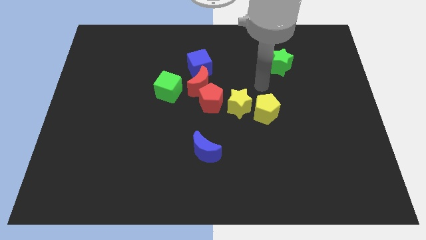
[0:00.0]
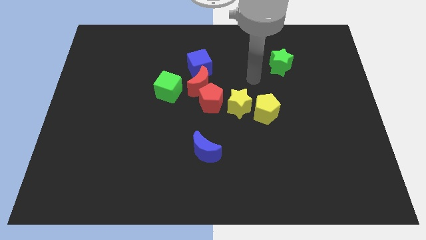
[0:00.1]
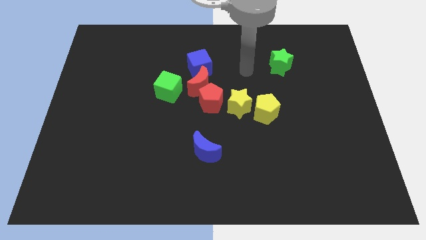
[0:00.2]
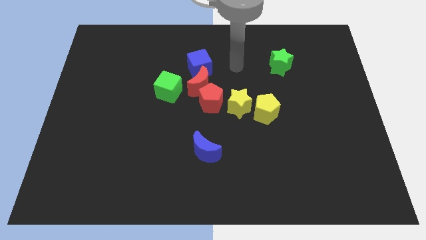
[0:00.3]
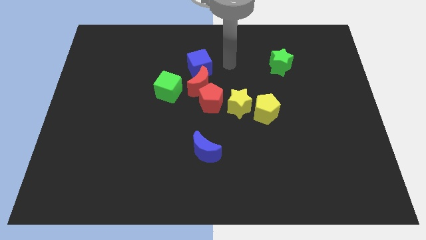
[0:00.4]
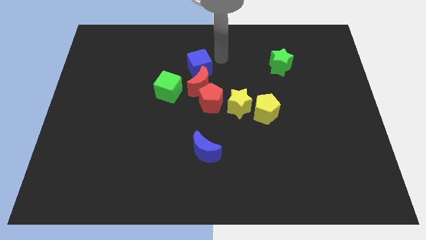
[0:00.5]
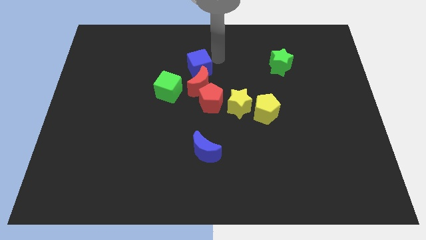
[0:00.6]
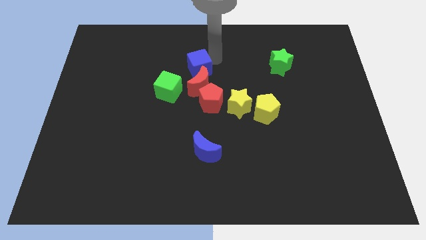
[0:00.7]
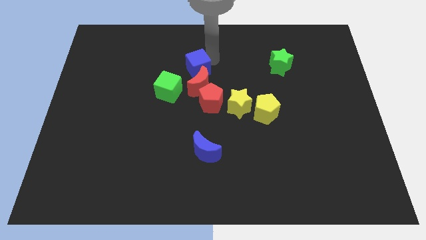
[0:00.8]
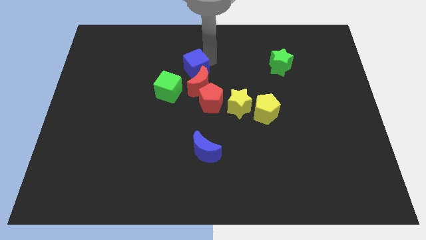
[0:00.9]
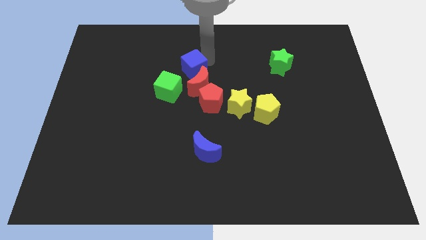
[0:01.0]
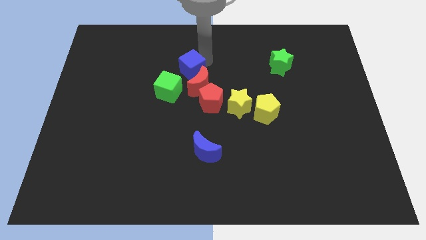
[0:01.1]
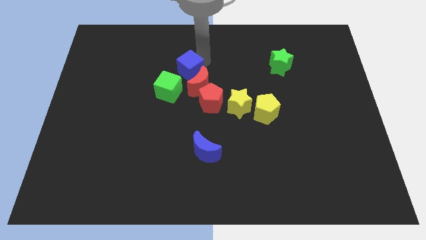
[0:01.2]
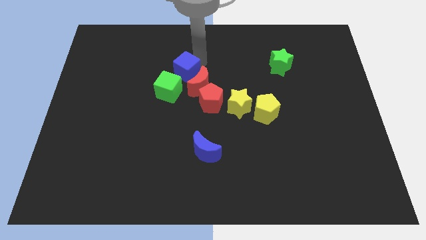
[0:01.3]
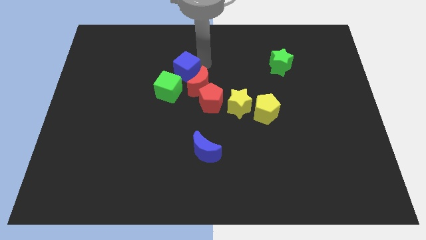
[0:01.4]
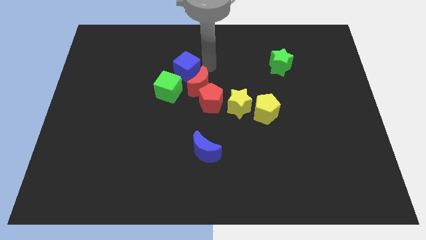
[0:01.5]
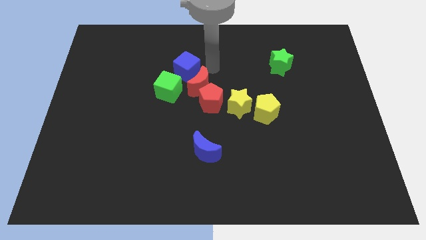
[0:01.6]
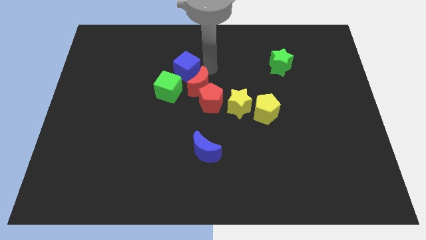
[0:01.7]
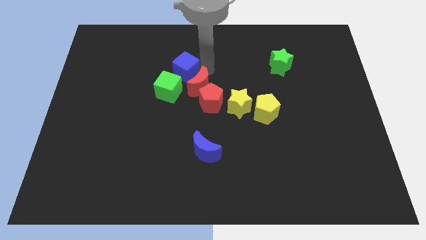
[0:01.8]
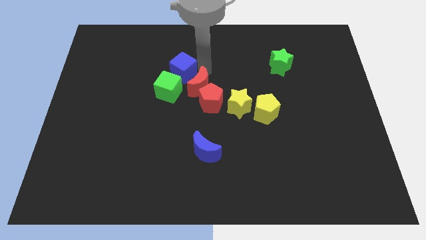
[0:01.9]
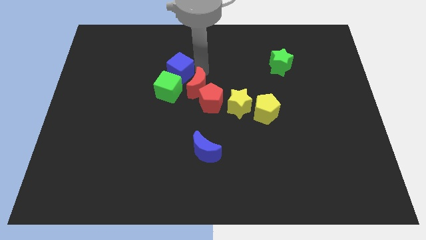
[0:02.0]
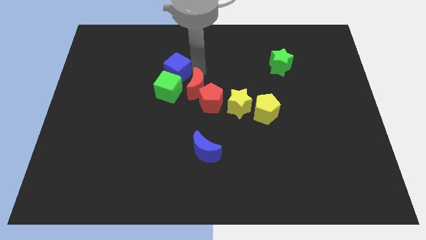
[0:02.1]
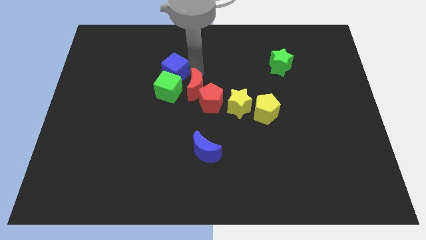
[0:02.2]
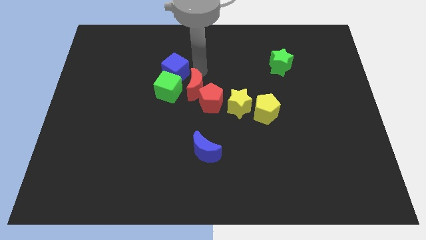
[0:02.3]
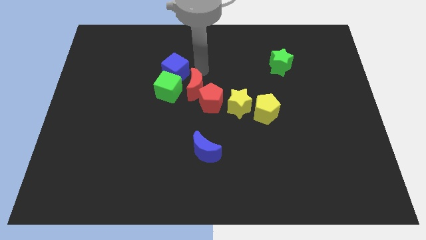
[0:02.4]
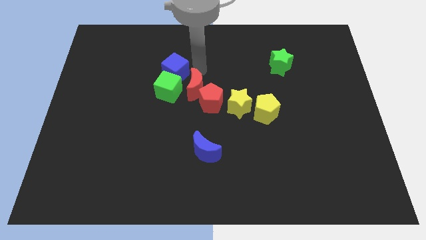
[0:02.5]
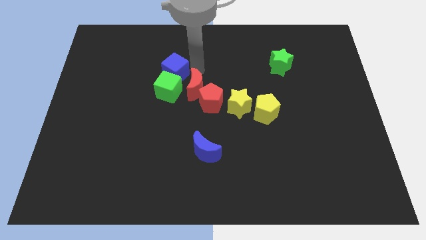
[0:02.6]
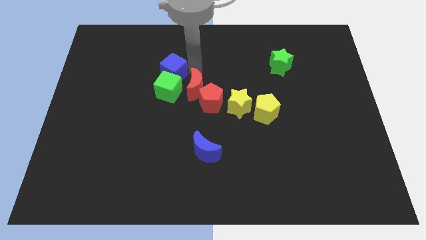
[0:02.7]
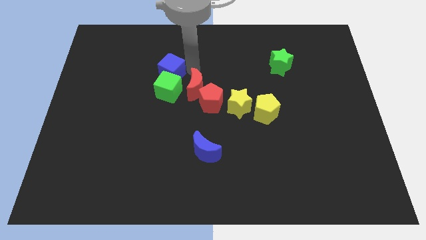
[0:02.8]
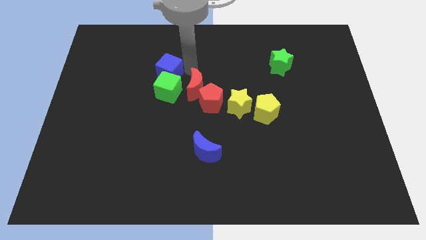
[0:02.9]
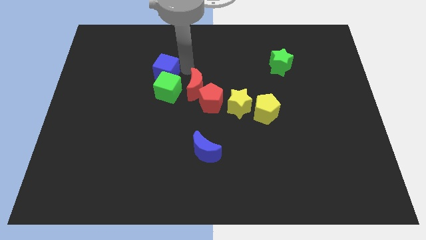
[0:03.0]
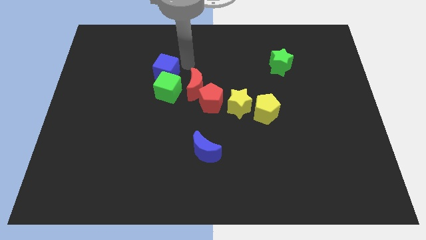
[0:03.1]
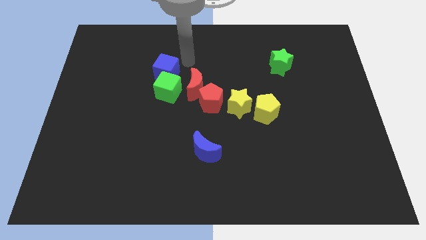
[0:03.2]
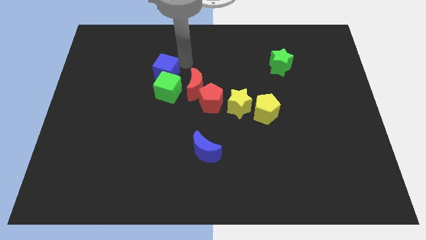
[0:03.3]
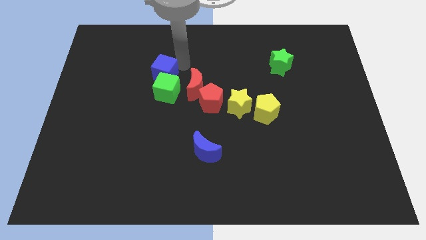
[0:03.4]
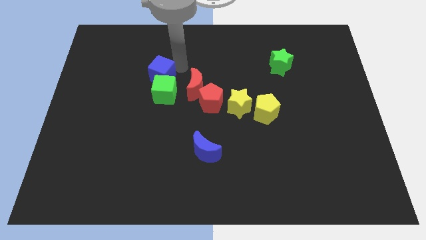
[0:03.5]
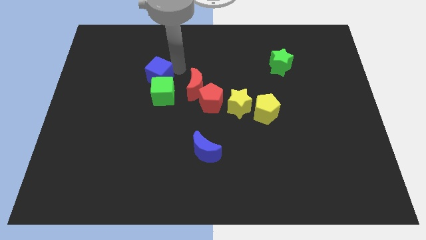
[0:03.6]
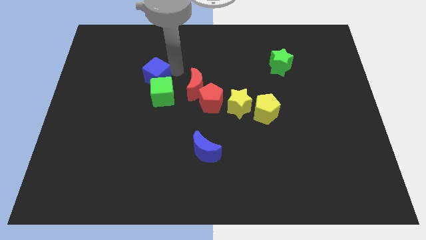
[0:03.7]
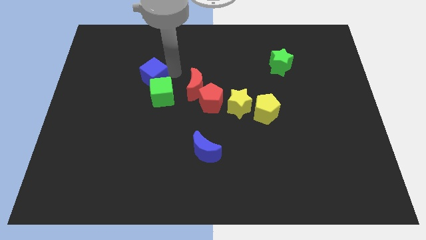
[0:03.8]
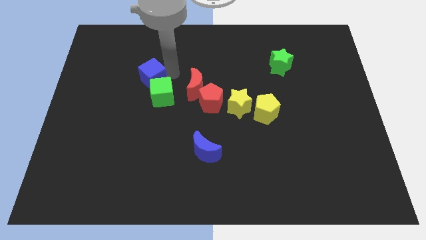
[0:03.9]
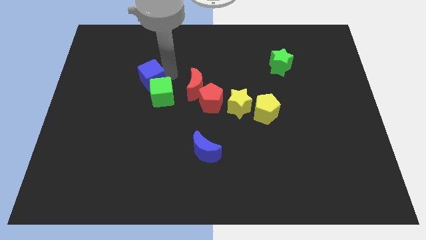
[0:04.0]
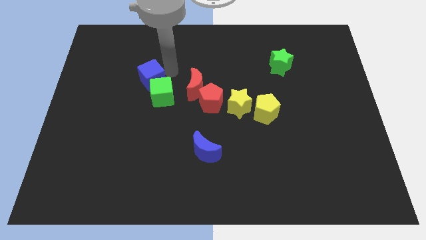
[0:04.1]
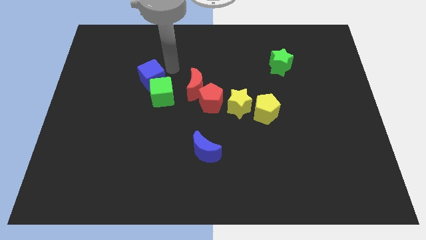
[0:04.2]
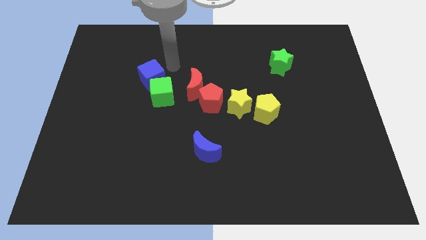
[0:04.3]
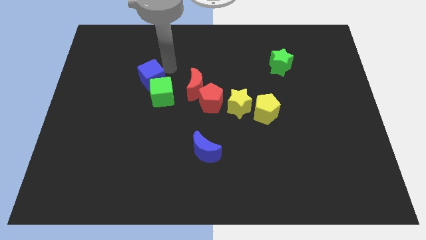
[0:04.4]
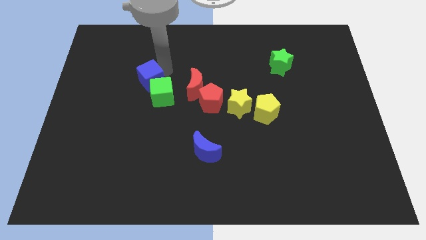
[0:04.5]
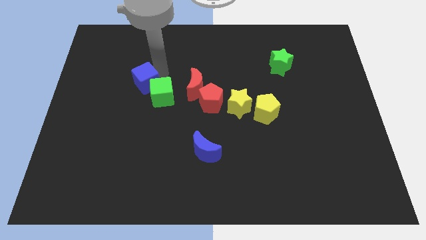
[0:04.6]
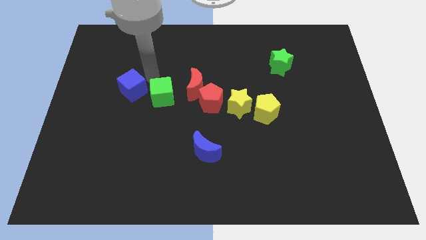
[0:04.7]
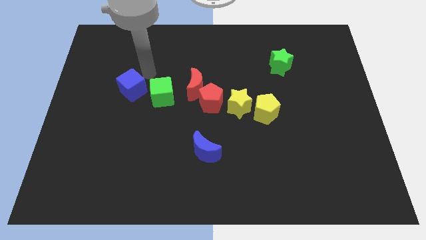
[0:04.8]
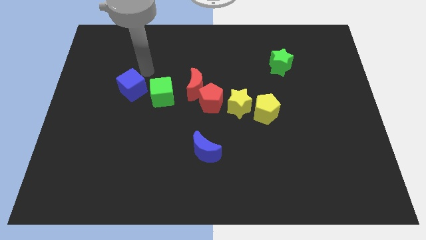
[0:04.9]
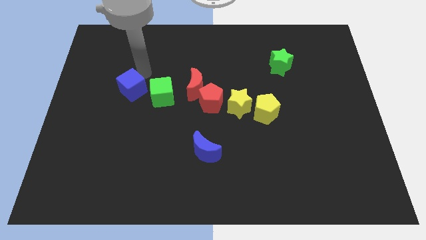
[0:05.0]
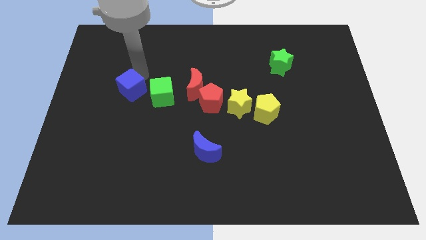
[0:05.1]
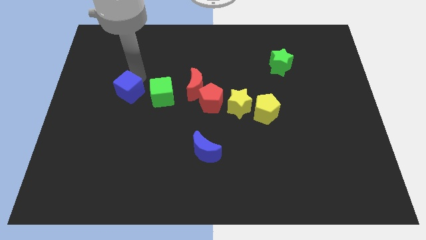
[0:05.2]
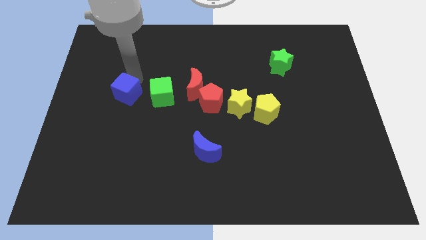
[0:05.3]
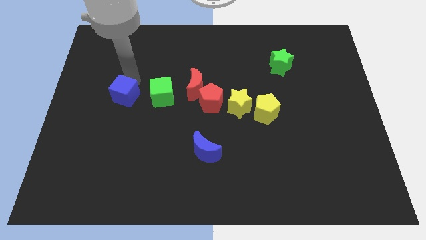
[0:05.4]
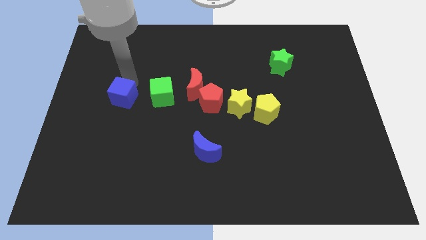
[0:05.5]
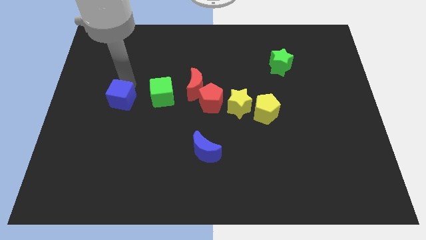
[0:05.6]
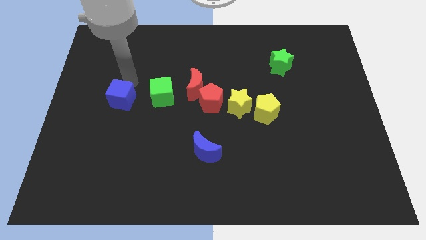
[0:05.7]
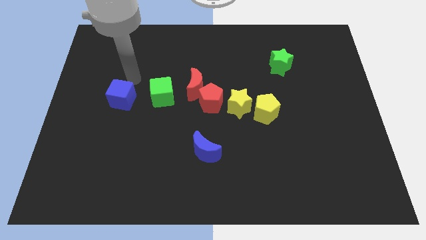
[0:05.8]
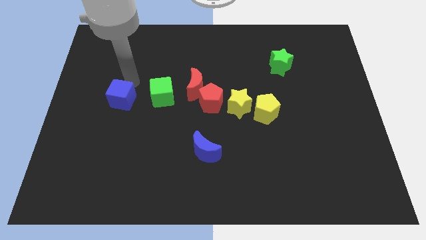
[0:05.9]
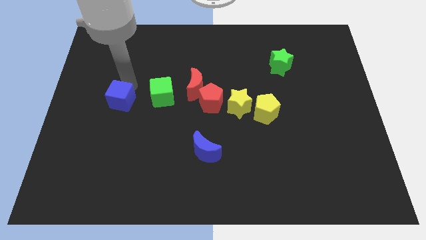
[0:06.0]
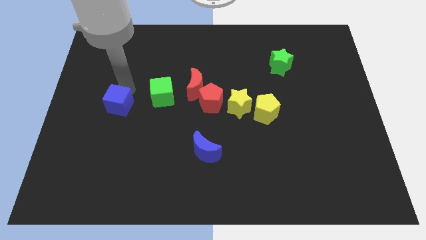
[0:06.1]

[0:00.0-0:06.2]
slide the blue cube downwards and left diagonally

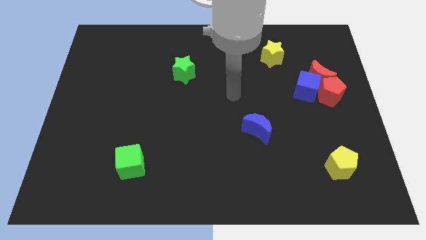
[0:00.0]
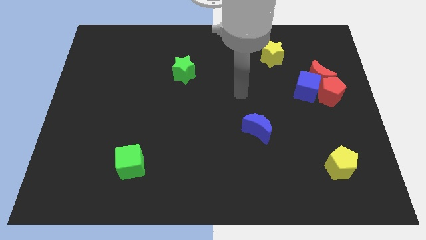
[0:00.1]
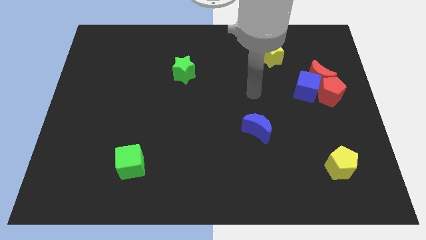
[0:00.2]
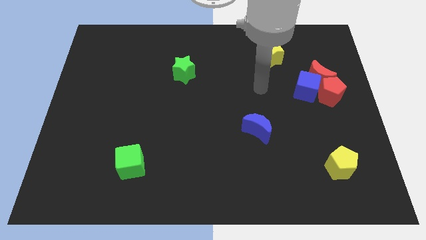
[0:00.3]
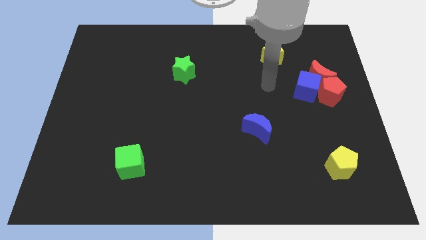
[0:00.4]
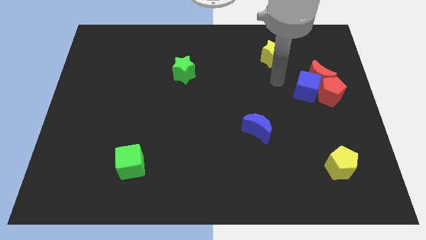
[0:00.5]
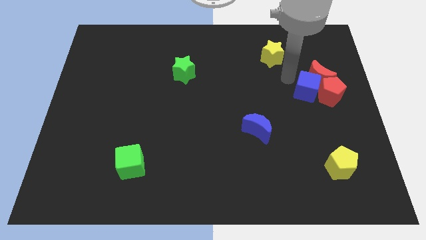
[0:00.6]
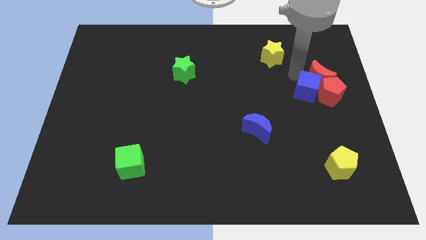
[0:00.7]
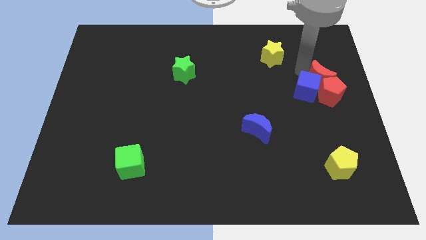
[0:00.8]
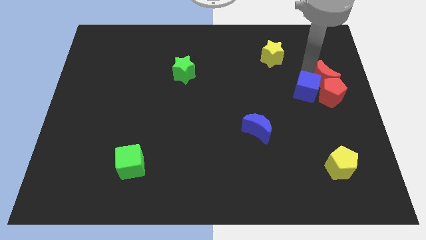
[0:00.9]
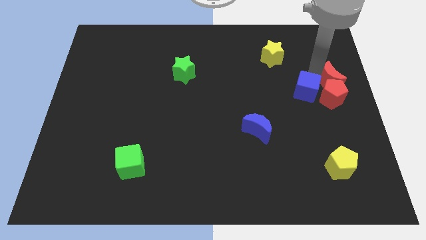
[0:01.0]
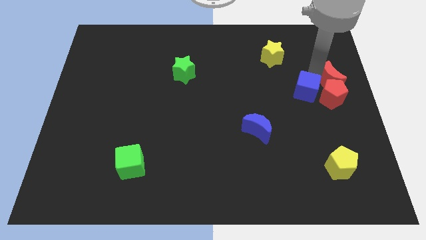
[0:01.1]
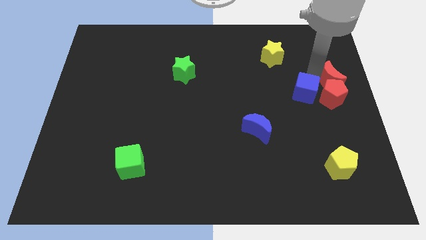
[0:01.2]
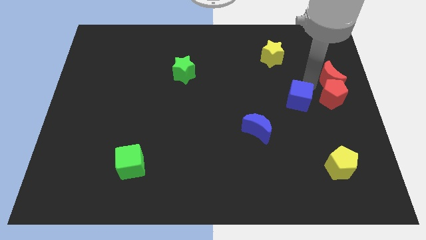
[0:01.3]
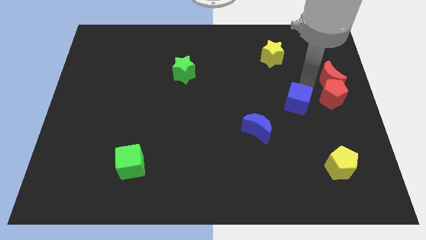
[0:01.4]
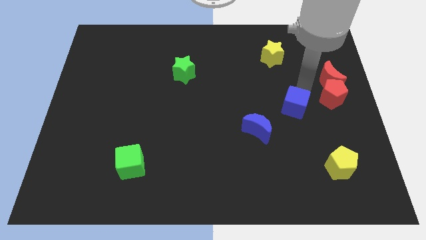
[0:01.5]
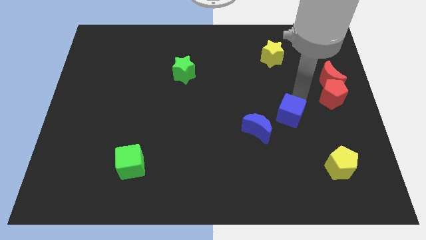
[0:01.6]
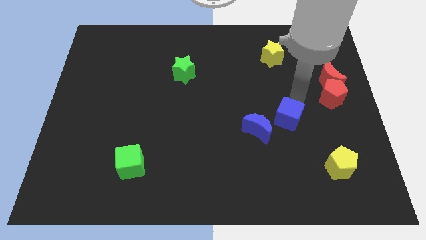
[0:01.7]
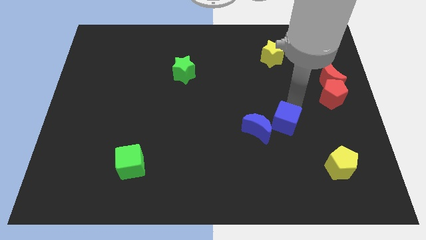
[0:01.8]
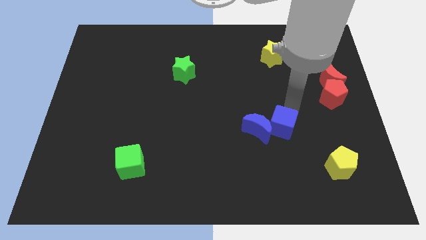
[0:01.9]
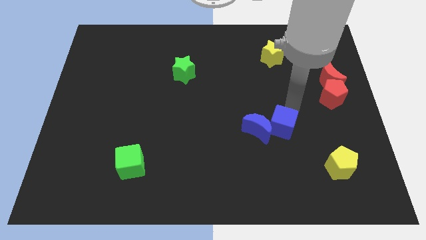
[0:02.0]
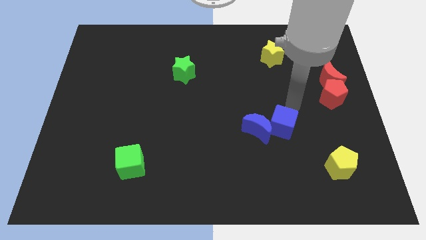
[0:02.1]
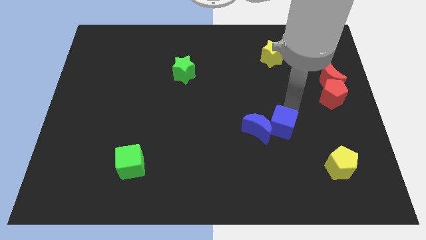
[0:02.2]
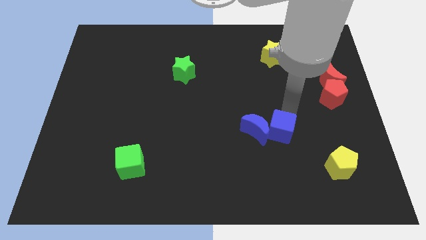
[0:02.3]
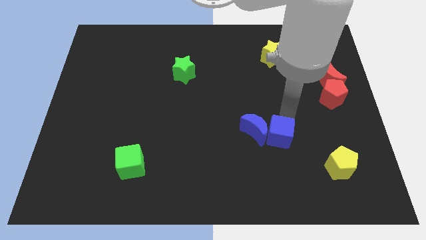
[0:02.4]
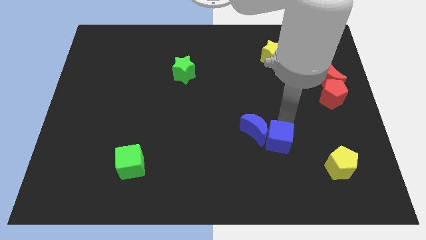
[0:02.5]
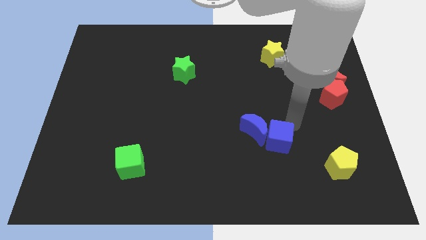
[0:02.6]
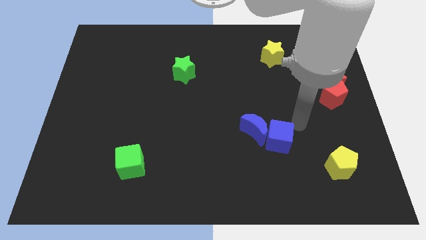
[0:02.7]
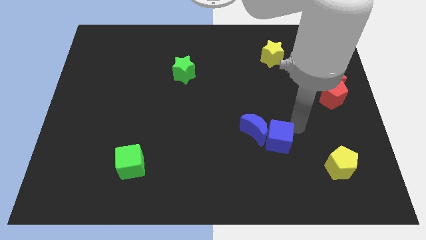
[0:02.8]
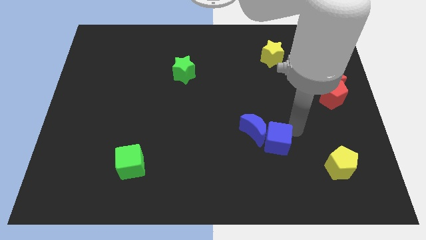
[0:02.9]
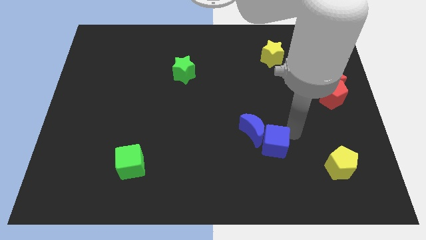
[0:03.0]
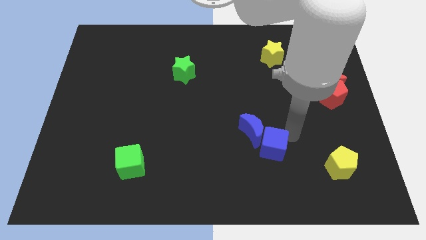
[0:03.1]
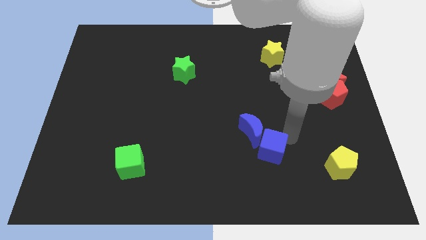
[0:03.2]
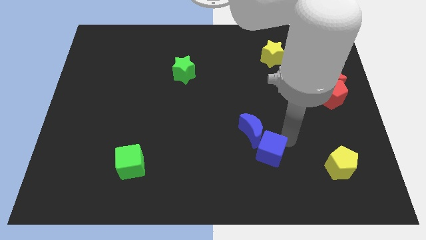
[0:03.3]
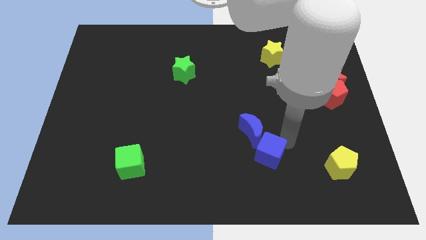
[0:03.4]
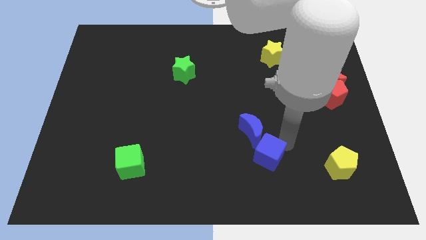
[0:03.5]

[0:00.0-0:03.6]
slide the blue cube down and to the left diagonally
